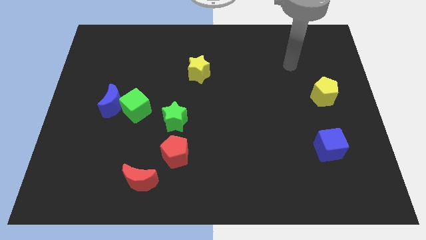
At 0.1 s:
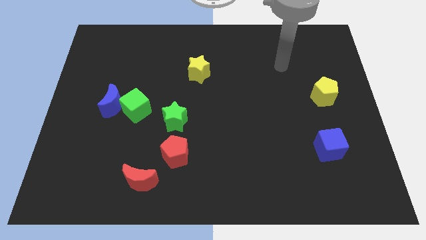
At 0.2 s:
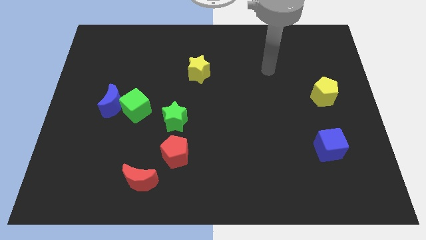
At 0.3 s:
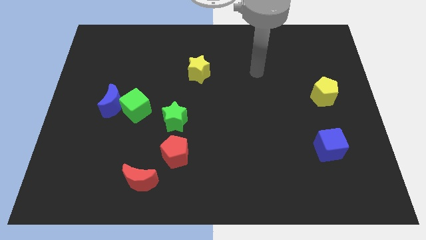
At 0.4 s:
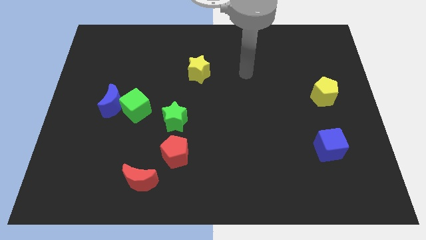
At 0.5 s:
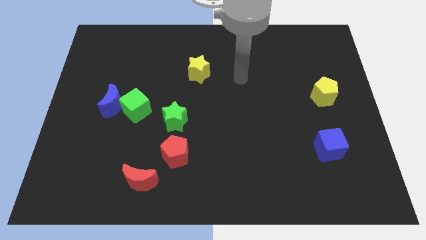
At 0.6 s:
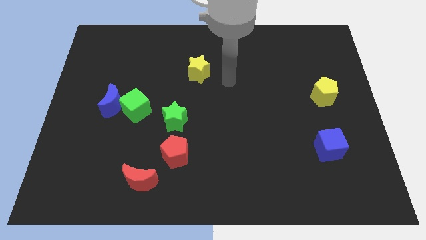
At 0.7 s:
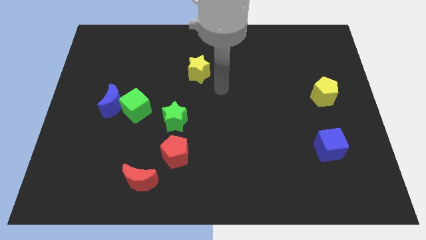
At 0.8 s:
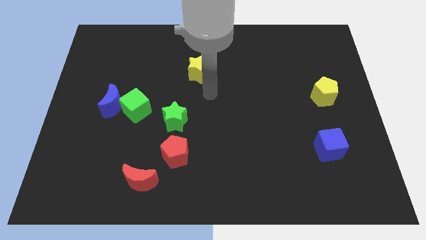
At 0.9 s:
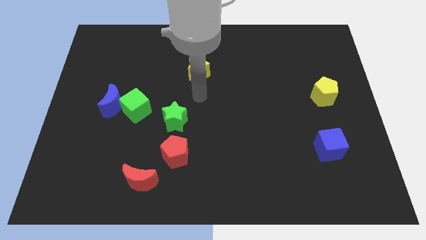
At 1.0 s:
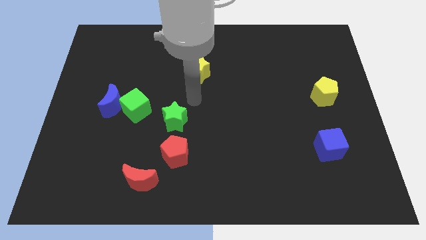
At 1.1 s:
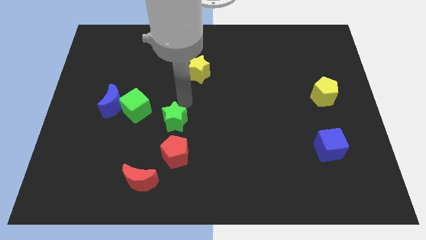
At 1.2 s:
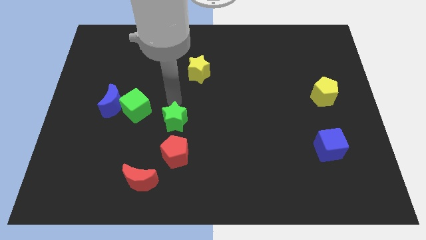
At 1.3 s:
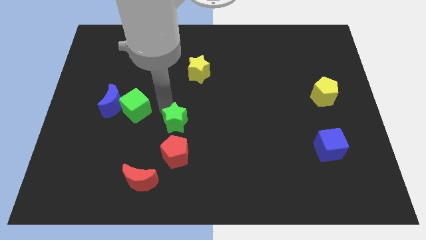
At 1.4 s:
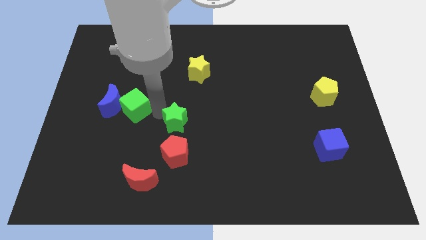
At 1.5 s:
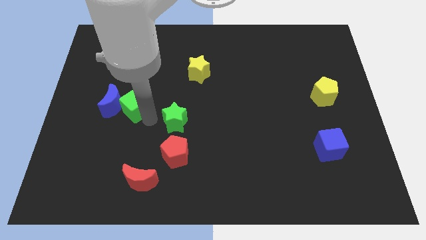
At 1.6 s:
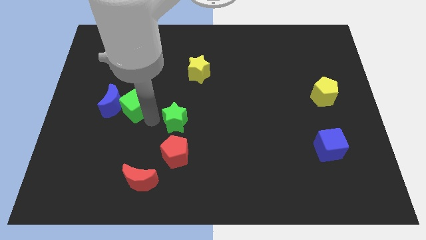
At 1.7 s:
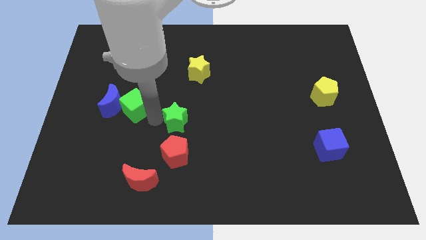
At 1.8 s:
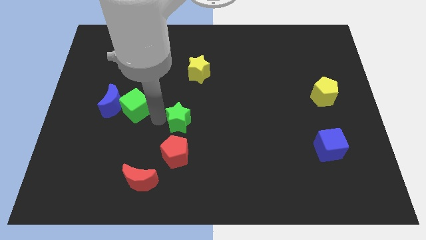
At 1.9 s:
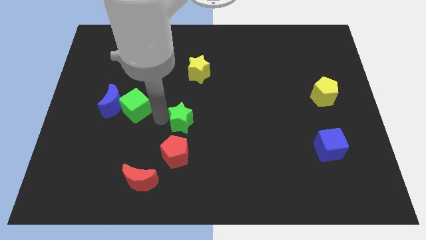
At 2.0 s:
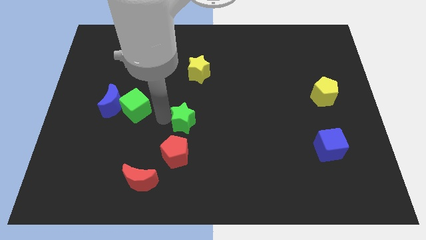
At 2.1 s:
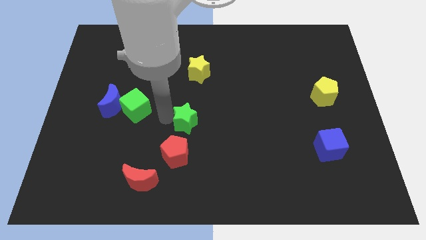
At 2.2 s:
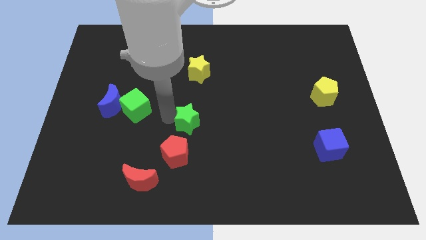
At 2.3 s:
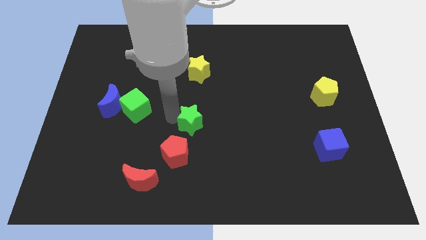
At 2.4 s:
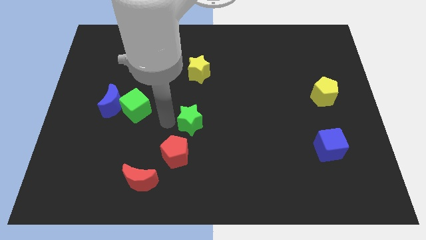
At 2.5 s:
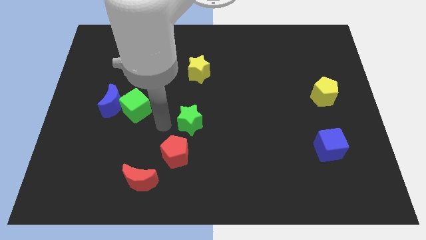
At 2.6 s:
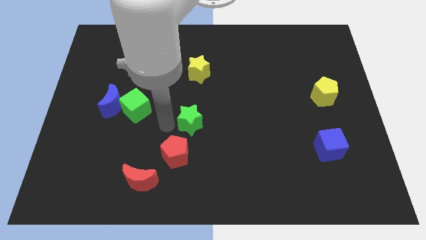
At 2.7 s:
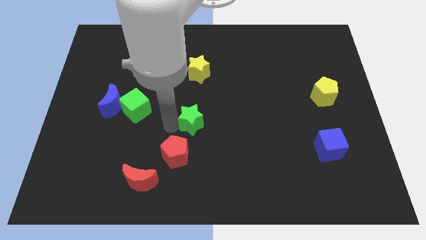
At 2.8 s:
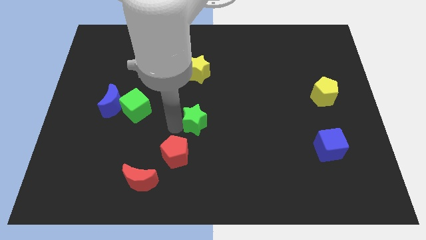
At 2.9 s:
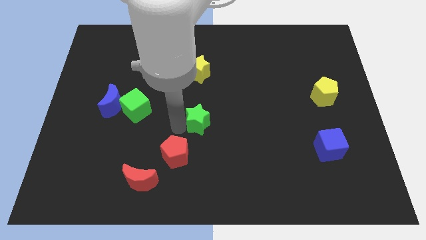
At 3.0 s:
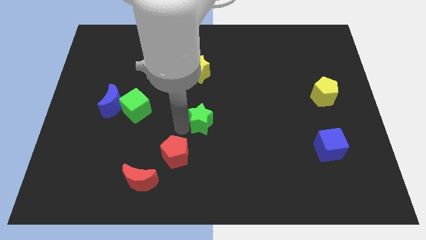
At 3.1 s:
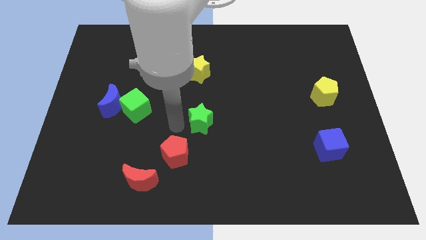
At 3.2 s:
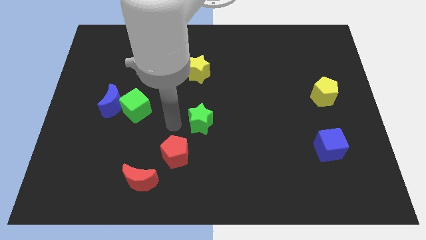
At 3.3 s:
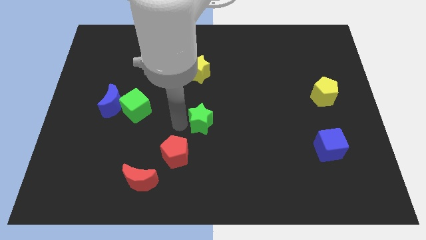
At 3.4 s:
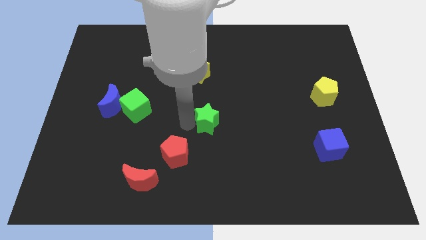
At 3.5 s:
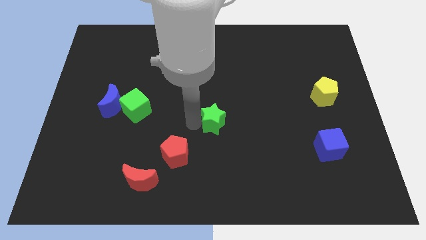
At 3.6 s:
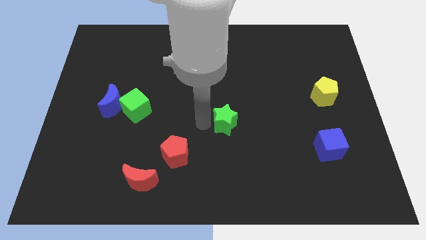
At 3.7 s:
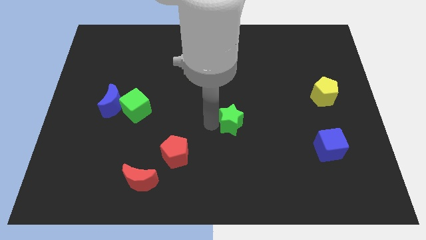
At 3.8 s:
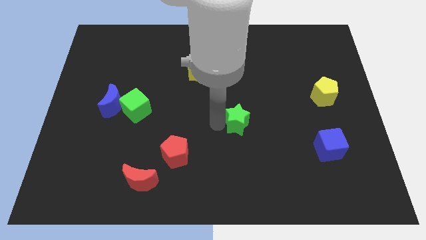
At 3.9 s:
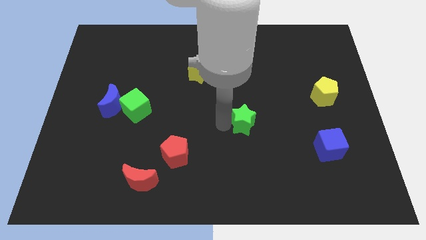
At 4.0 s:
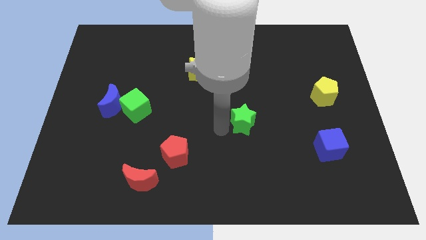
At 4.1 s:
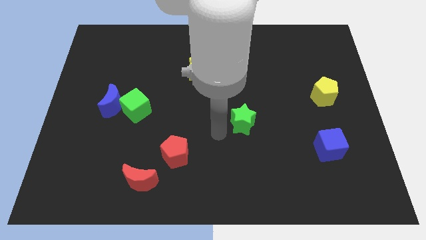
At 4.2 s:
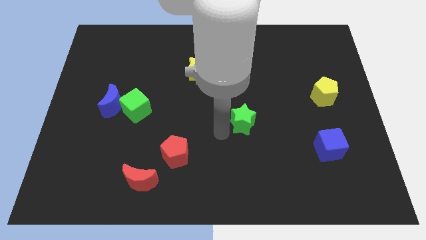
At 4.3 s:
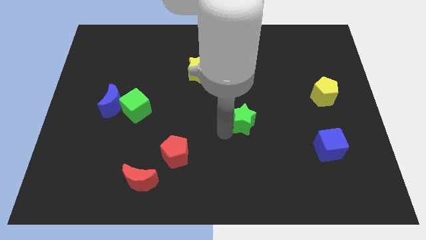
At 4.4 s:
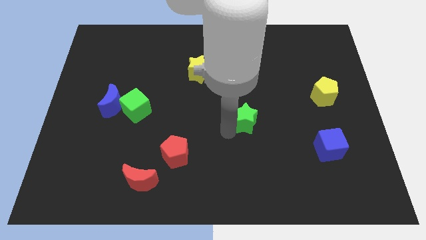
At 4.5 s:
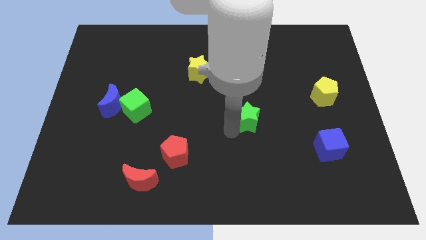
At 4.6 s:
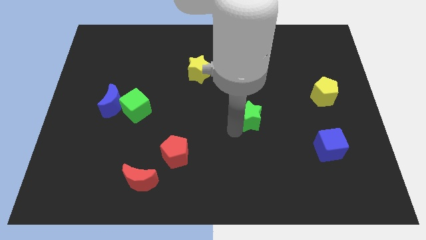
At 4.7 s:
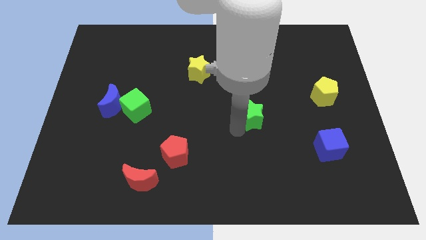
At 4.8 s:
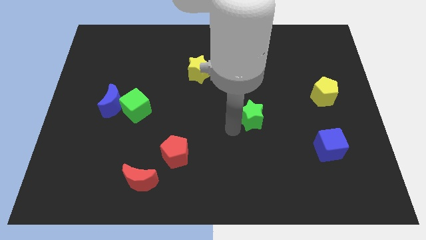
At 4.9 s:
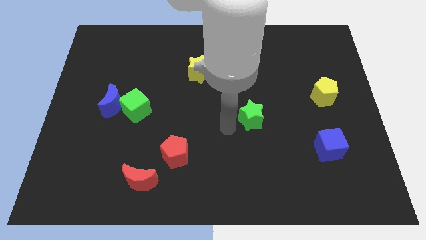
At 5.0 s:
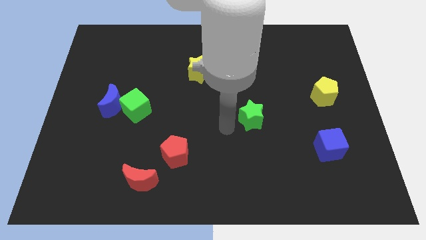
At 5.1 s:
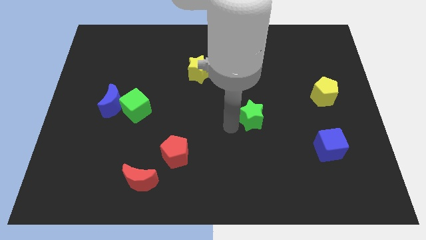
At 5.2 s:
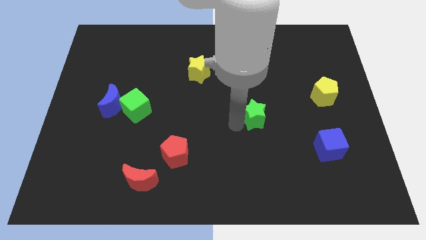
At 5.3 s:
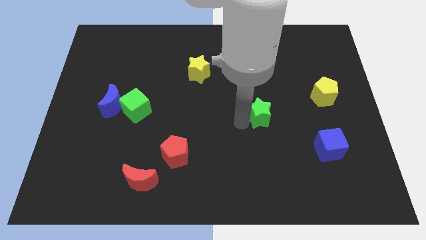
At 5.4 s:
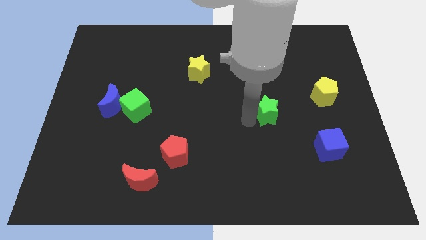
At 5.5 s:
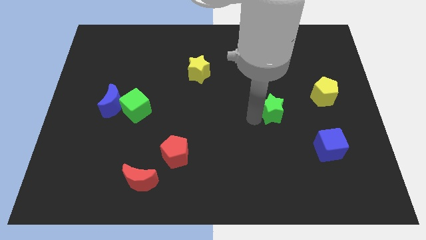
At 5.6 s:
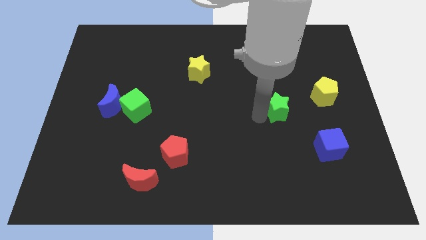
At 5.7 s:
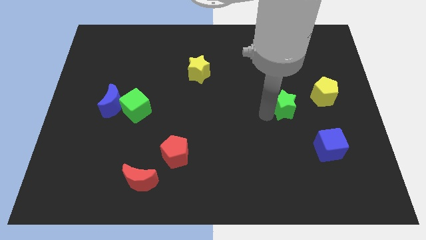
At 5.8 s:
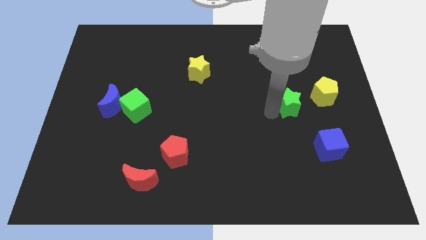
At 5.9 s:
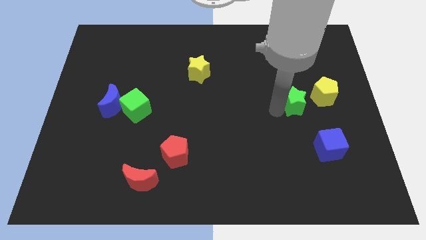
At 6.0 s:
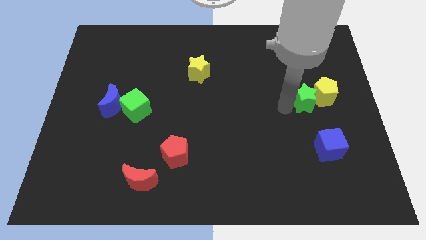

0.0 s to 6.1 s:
slide the green star to the yellow pentagon

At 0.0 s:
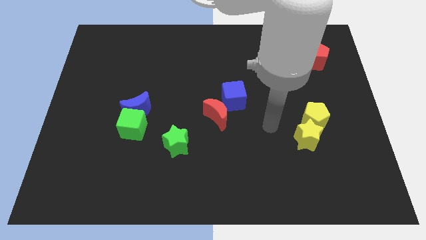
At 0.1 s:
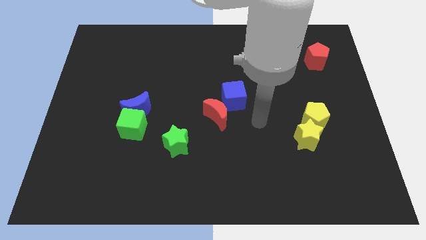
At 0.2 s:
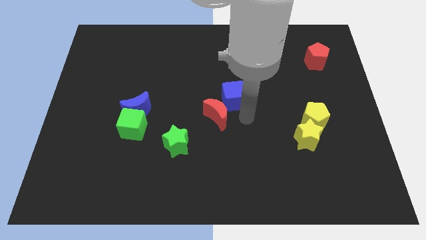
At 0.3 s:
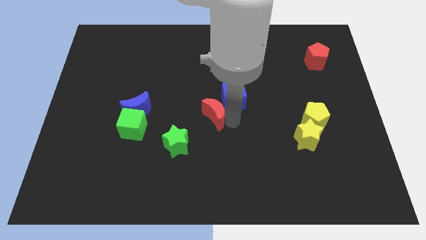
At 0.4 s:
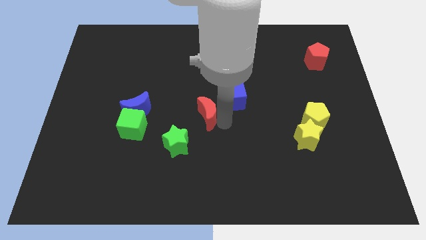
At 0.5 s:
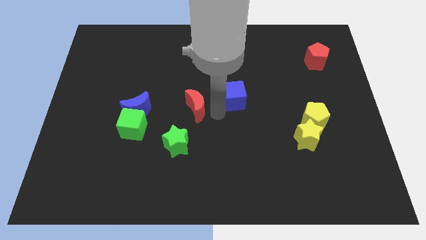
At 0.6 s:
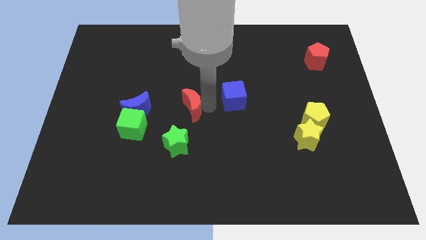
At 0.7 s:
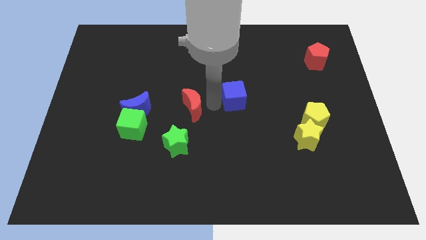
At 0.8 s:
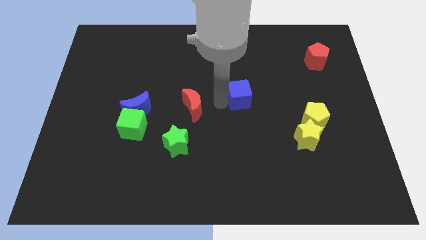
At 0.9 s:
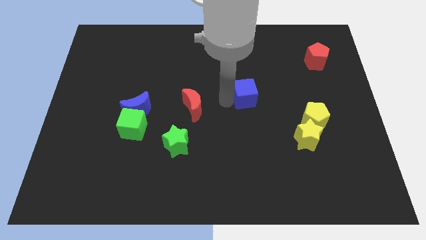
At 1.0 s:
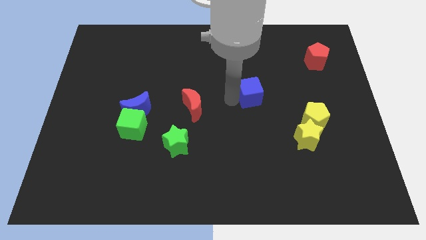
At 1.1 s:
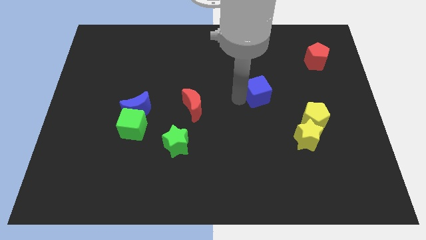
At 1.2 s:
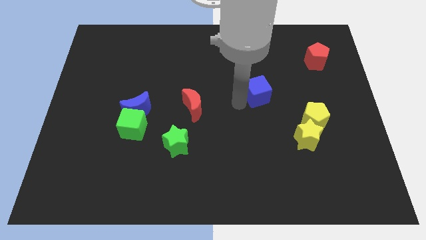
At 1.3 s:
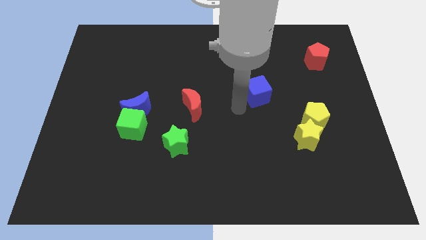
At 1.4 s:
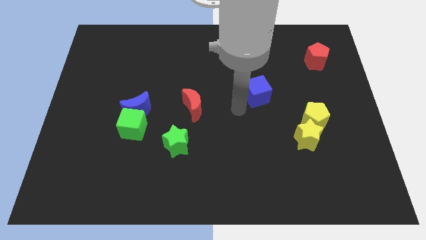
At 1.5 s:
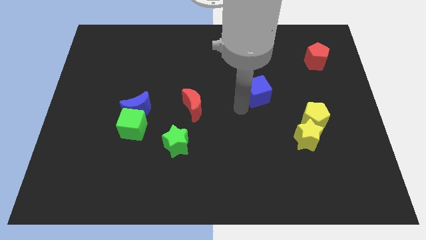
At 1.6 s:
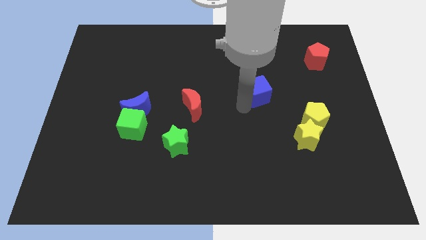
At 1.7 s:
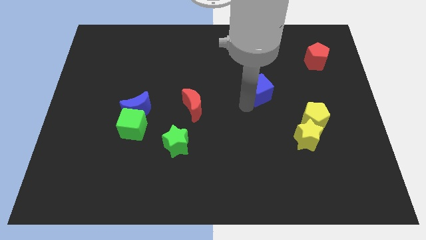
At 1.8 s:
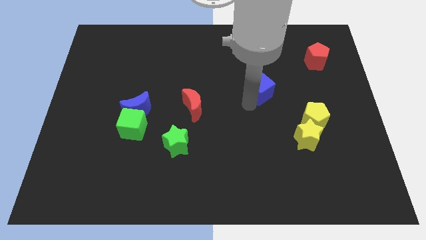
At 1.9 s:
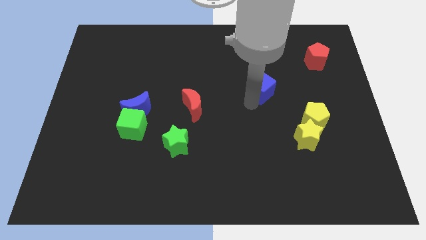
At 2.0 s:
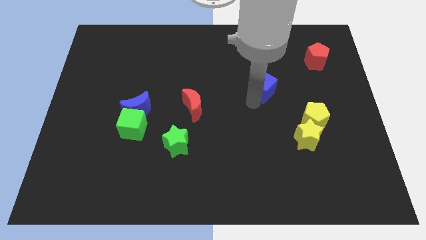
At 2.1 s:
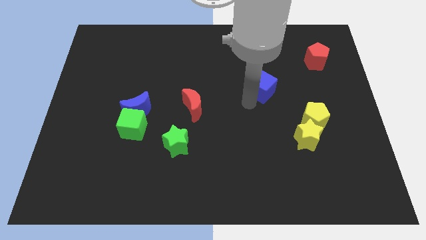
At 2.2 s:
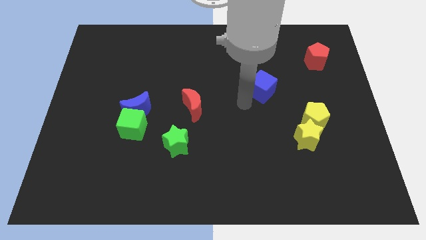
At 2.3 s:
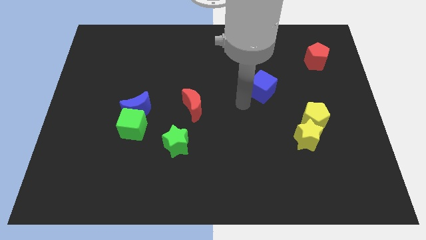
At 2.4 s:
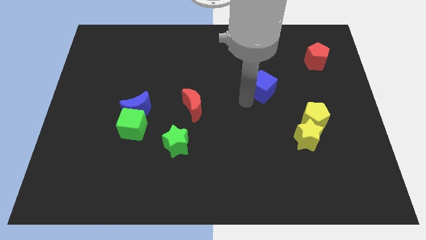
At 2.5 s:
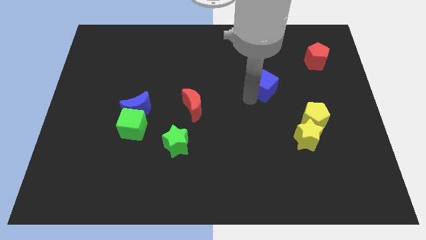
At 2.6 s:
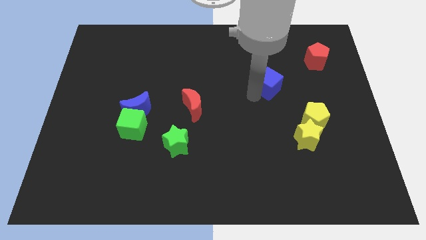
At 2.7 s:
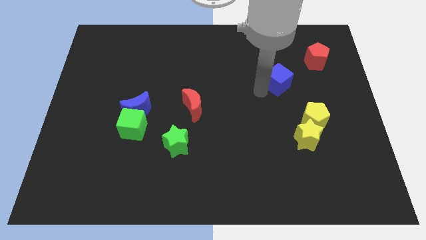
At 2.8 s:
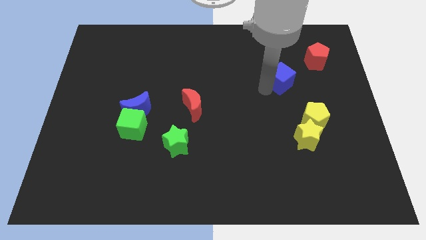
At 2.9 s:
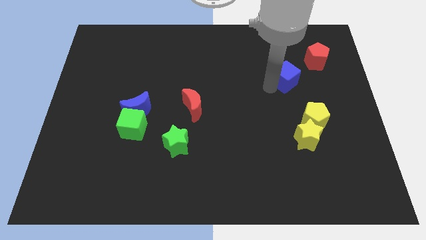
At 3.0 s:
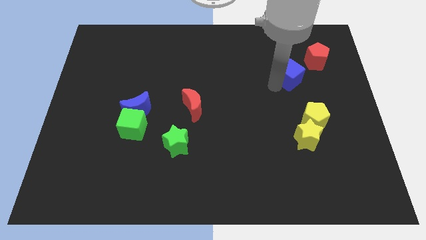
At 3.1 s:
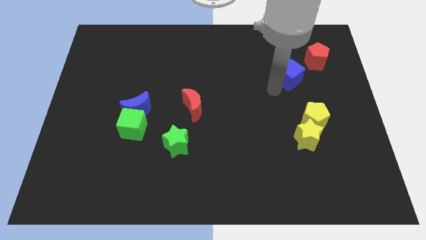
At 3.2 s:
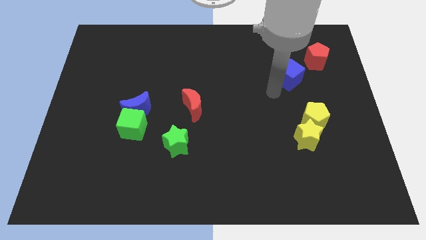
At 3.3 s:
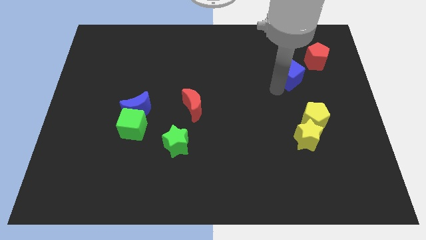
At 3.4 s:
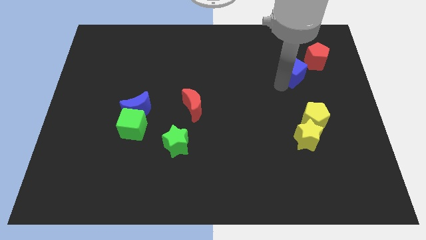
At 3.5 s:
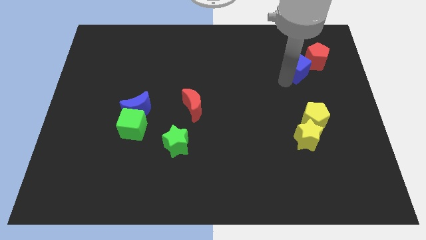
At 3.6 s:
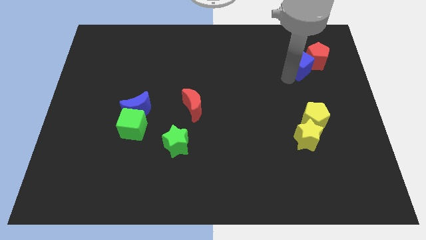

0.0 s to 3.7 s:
push the blue cube close to the red pentagon
